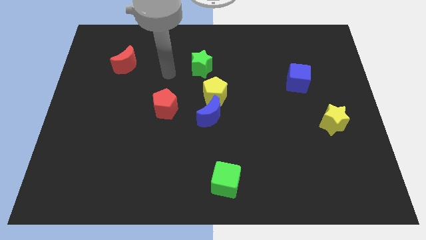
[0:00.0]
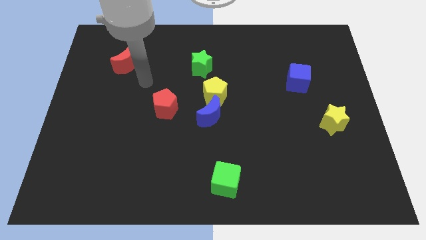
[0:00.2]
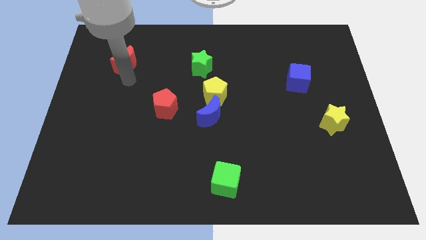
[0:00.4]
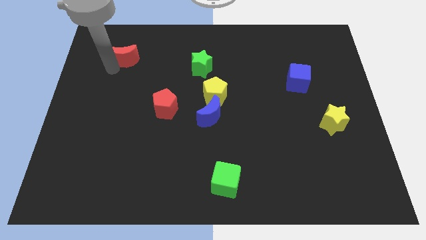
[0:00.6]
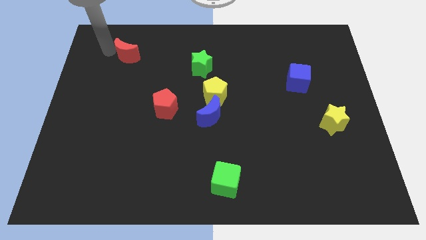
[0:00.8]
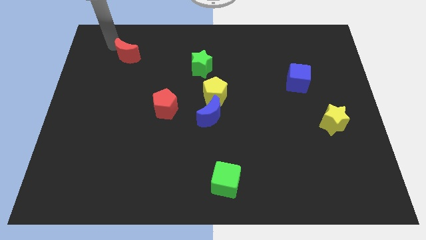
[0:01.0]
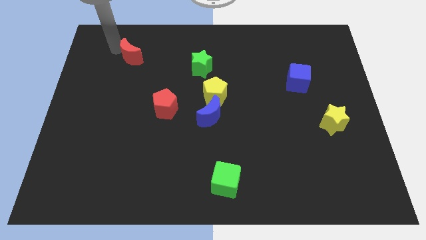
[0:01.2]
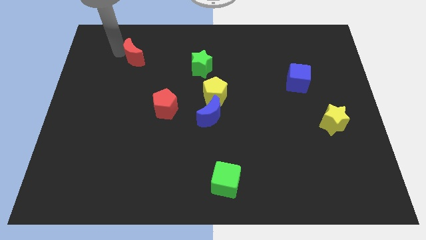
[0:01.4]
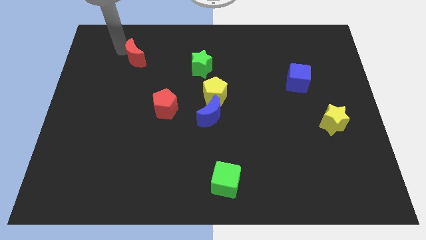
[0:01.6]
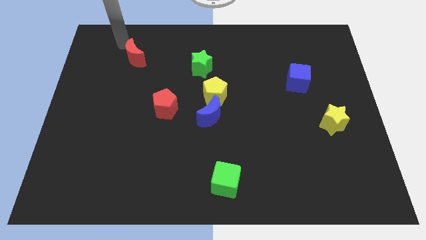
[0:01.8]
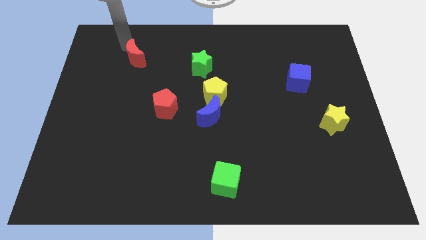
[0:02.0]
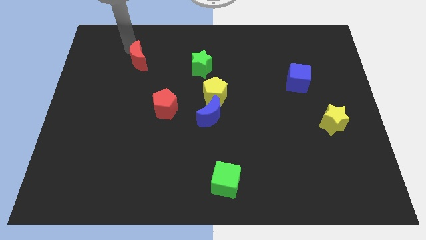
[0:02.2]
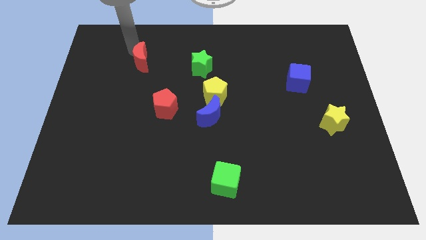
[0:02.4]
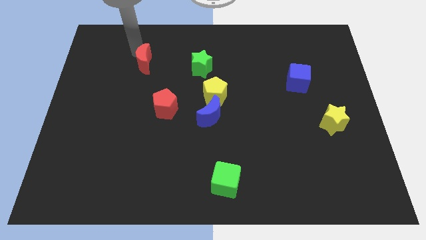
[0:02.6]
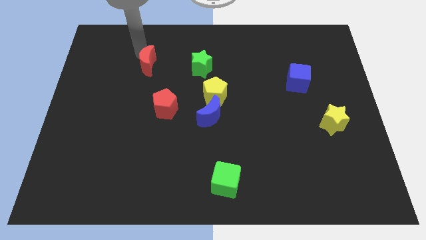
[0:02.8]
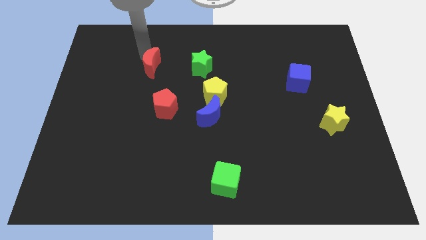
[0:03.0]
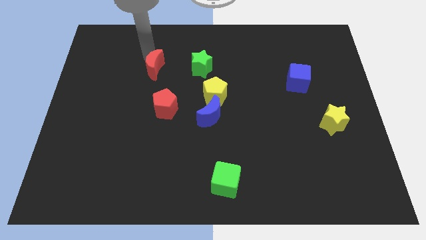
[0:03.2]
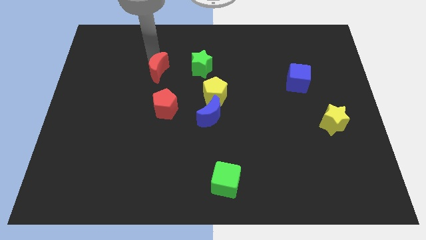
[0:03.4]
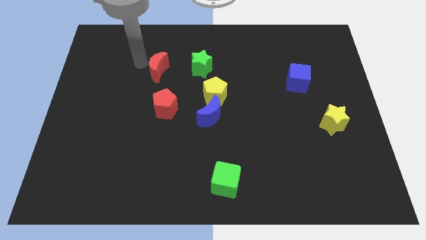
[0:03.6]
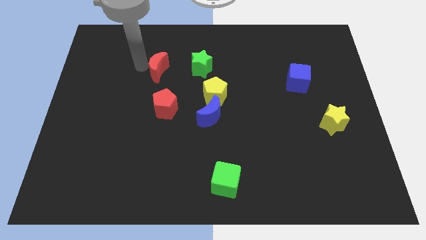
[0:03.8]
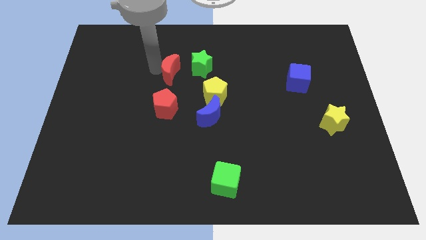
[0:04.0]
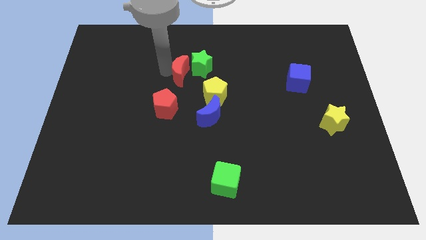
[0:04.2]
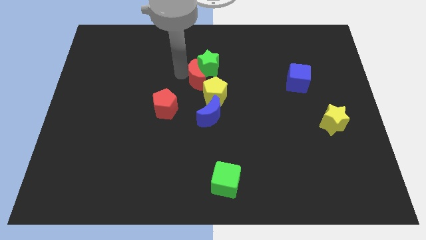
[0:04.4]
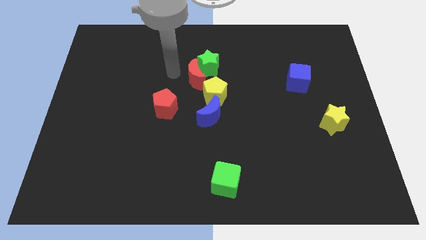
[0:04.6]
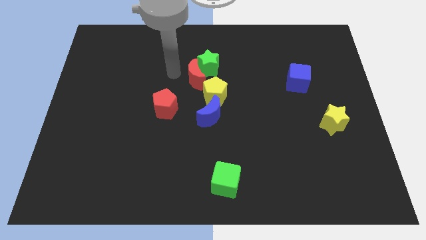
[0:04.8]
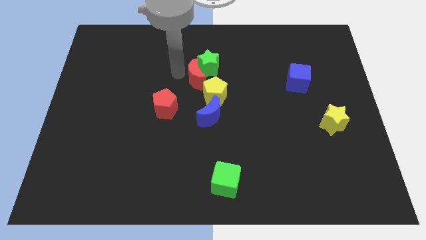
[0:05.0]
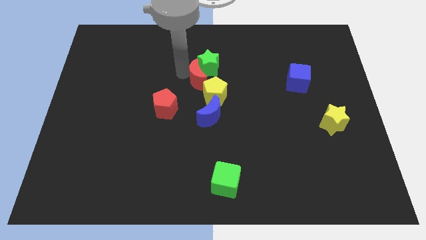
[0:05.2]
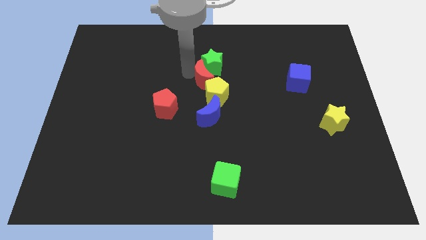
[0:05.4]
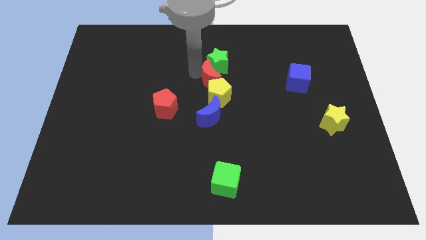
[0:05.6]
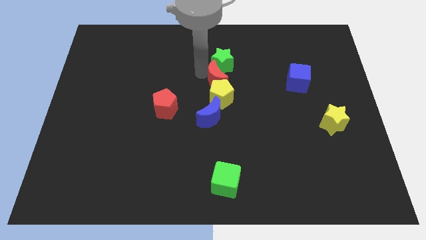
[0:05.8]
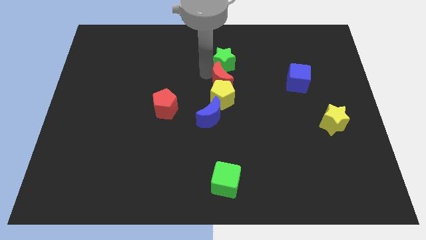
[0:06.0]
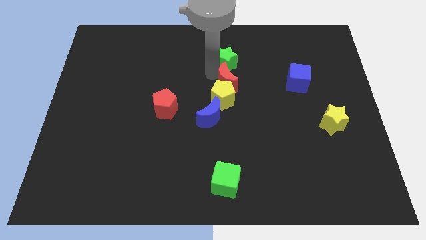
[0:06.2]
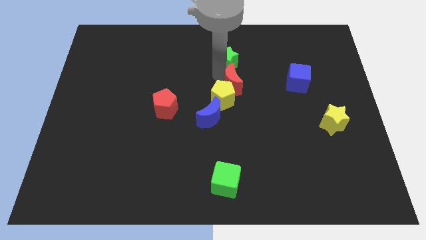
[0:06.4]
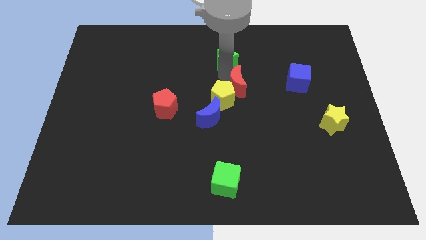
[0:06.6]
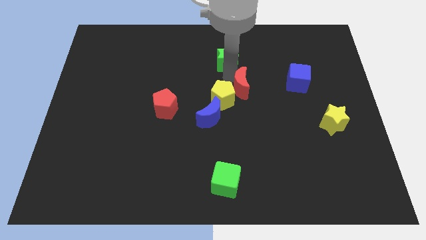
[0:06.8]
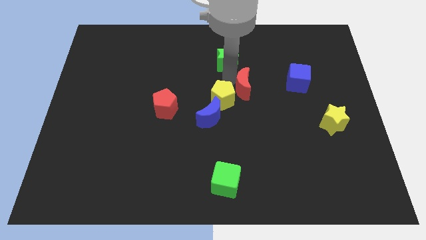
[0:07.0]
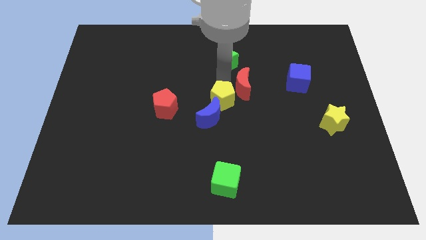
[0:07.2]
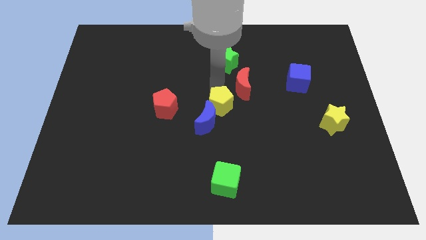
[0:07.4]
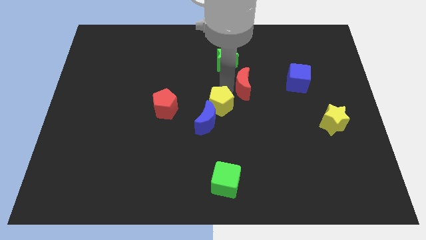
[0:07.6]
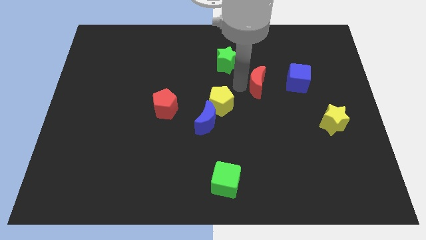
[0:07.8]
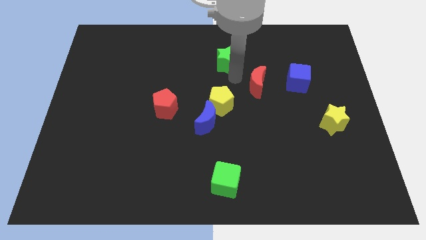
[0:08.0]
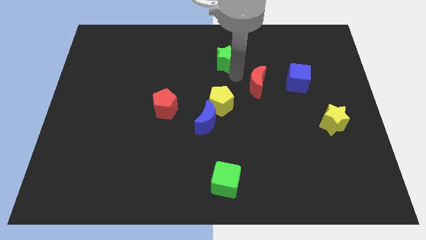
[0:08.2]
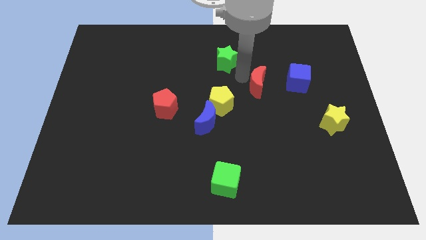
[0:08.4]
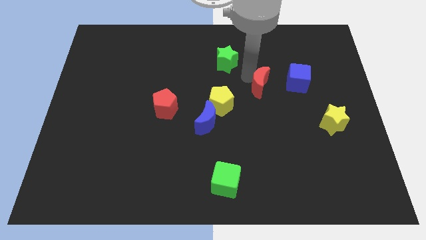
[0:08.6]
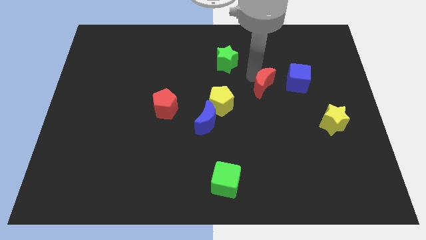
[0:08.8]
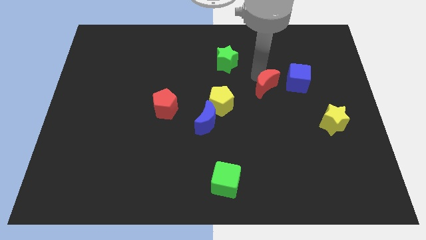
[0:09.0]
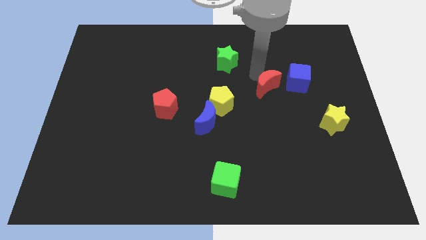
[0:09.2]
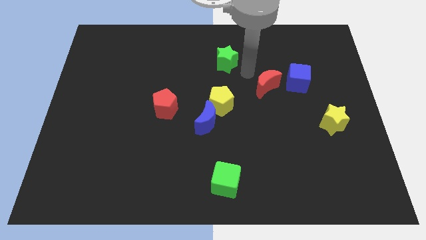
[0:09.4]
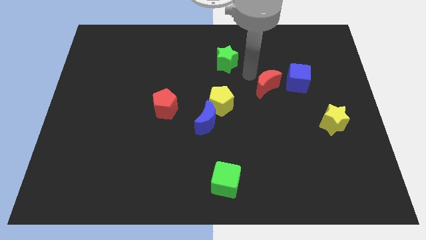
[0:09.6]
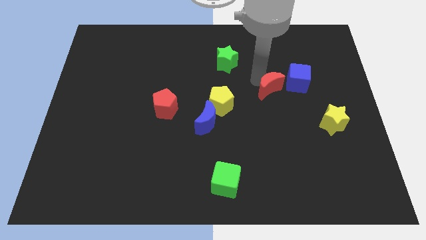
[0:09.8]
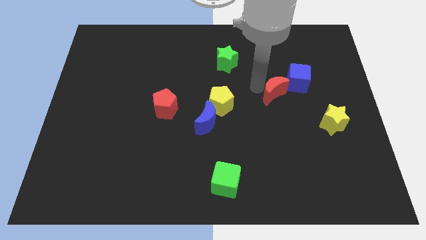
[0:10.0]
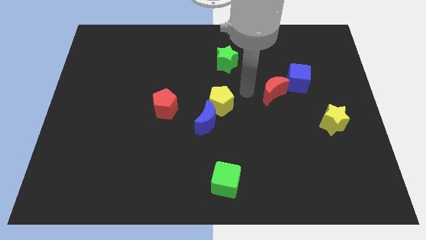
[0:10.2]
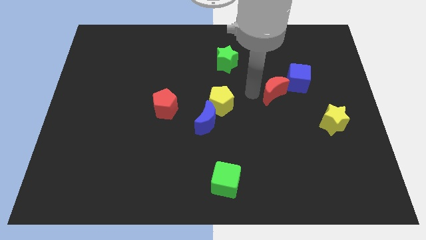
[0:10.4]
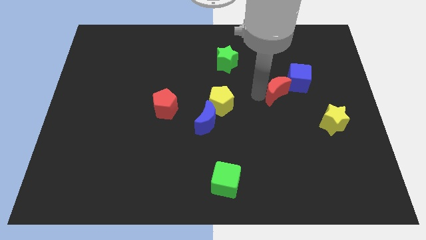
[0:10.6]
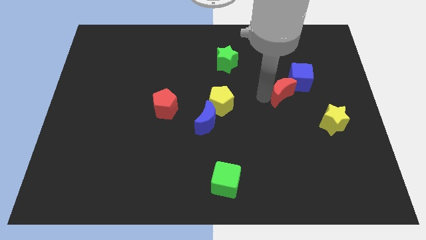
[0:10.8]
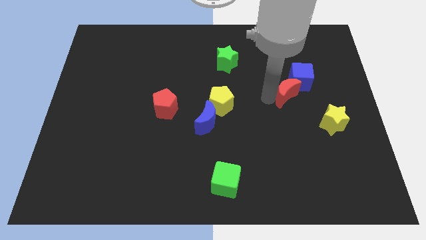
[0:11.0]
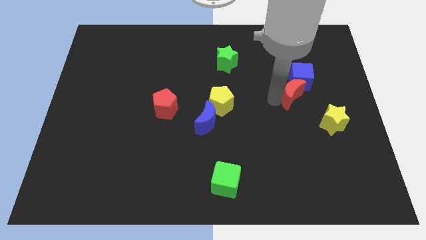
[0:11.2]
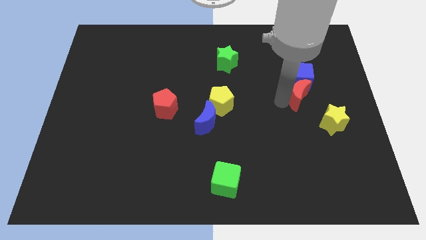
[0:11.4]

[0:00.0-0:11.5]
slide the red moon diagonally down and to the right of the blue cube

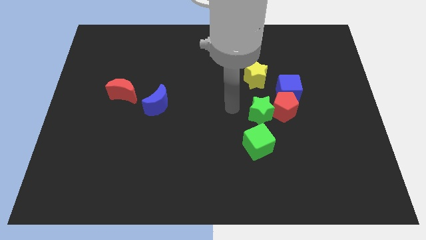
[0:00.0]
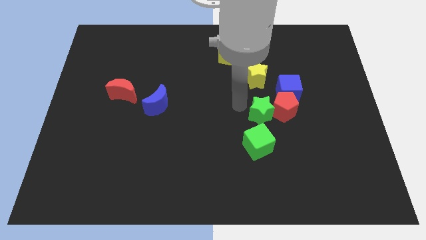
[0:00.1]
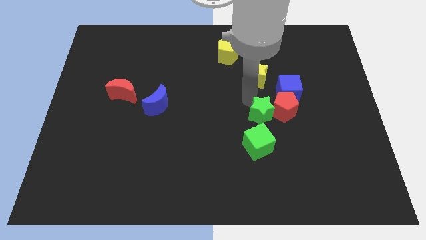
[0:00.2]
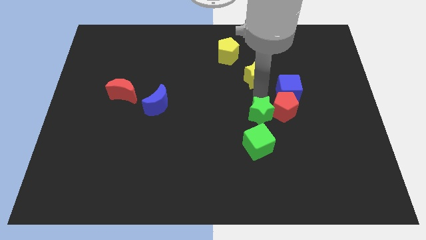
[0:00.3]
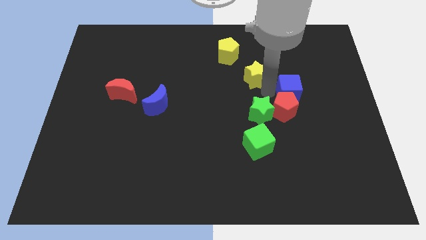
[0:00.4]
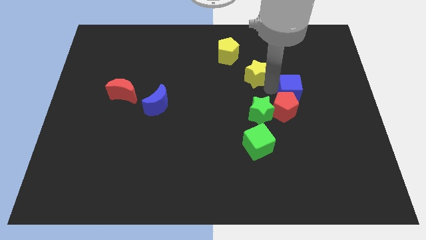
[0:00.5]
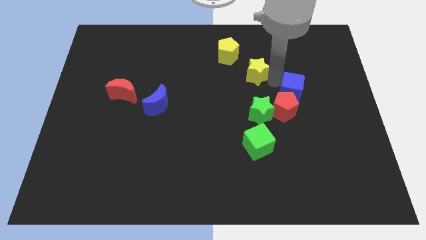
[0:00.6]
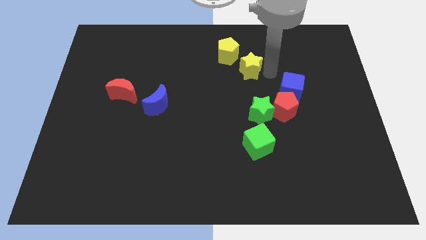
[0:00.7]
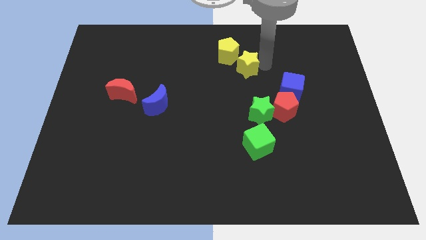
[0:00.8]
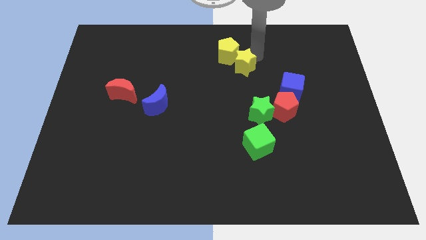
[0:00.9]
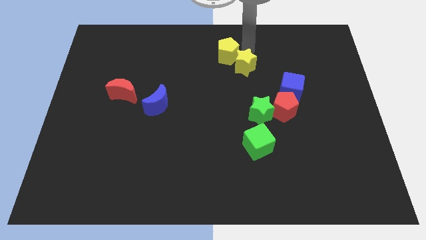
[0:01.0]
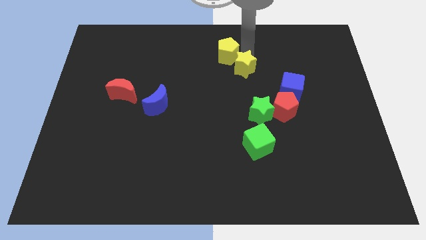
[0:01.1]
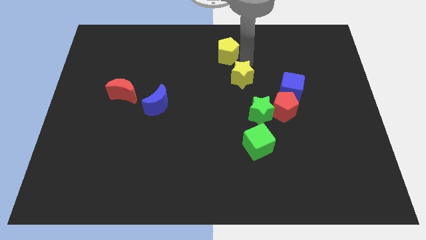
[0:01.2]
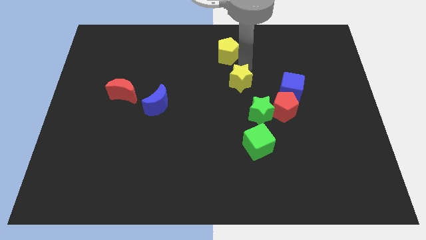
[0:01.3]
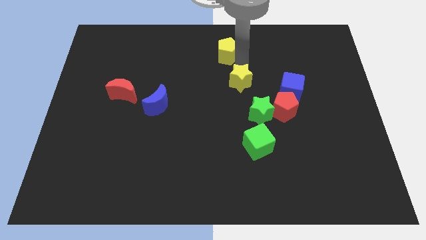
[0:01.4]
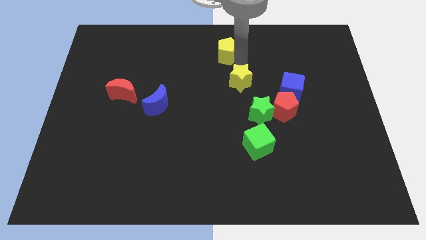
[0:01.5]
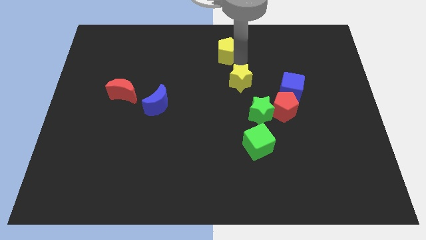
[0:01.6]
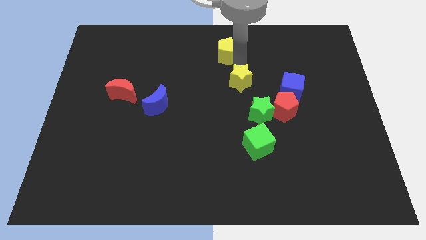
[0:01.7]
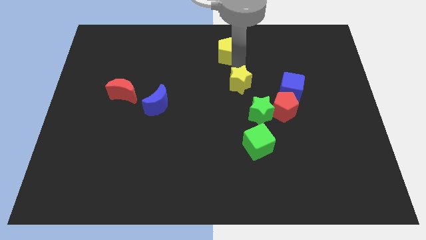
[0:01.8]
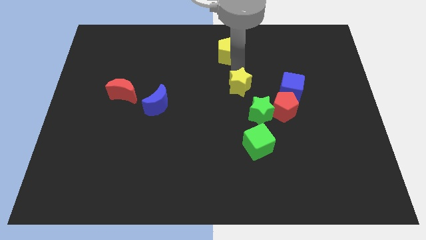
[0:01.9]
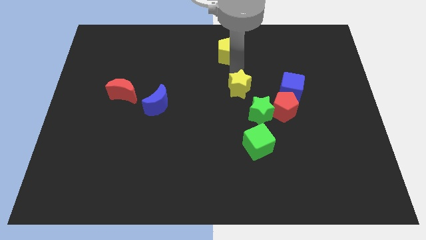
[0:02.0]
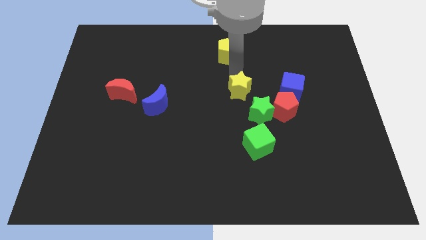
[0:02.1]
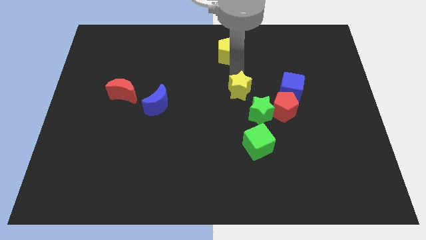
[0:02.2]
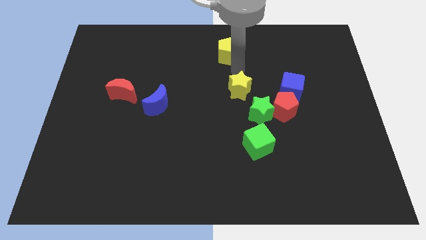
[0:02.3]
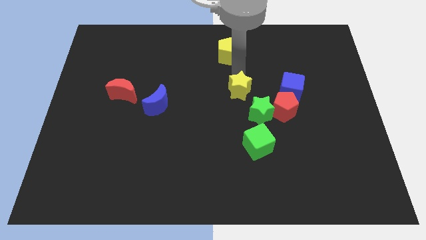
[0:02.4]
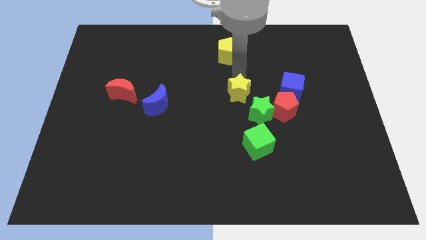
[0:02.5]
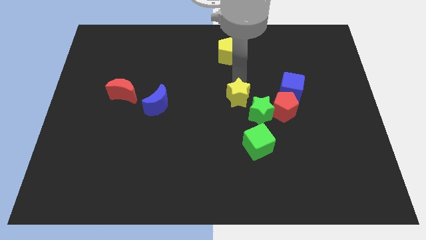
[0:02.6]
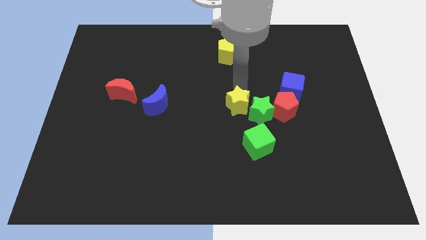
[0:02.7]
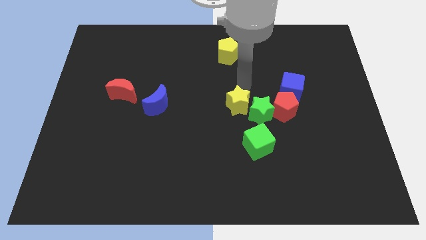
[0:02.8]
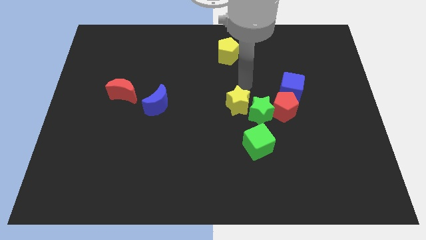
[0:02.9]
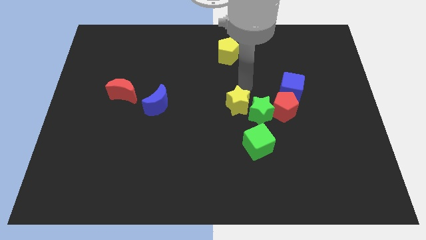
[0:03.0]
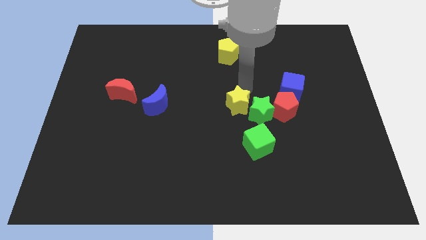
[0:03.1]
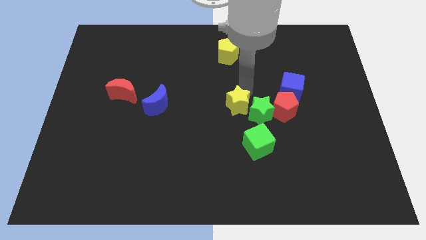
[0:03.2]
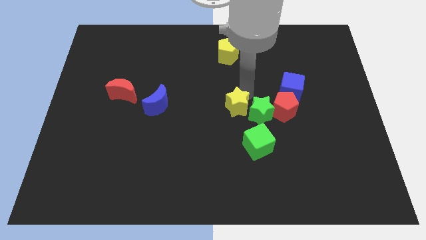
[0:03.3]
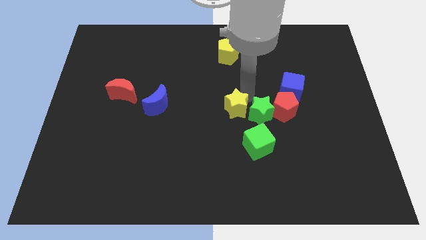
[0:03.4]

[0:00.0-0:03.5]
put the yellow star to the top left of the green cube
